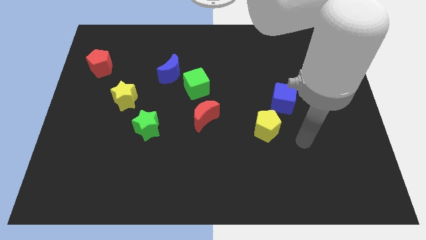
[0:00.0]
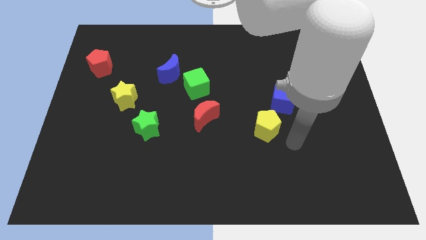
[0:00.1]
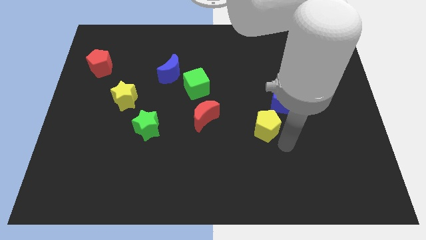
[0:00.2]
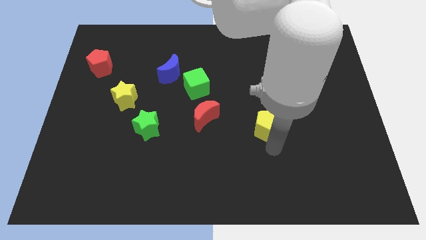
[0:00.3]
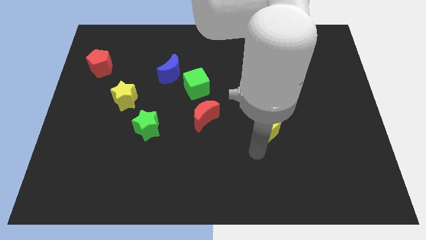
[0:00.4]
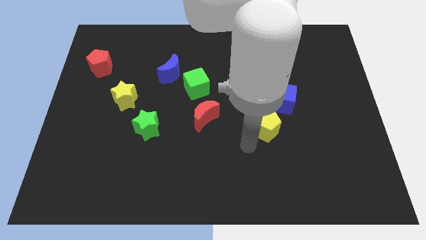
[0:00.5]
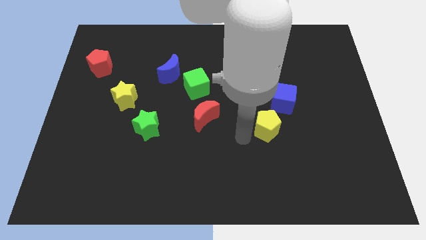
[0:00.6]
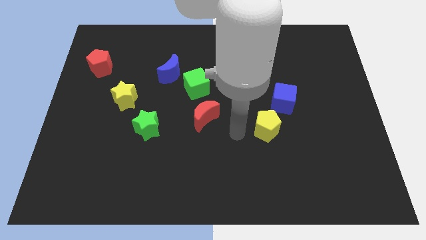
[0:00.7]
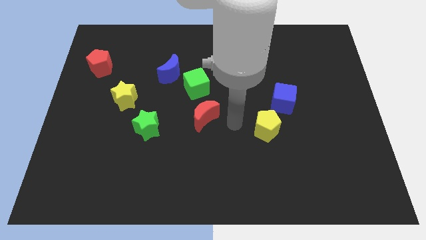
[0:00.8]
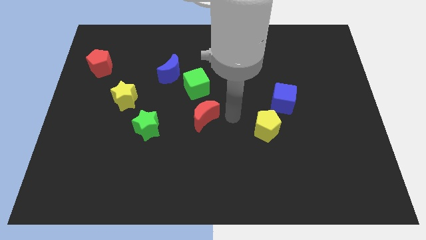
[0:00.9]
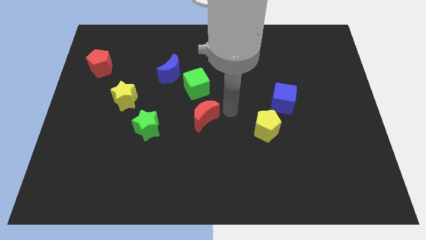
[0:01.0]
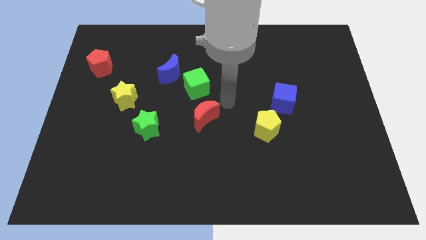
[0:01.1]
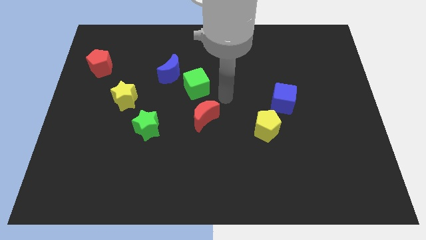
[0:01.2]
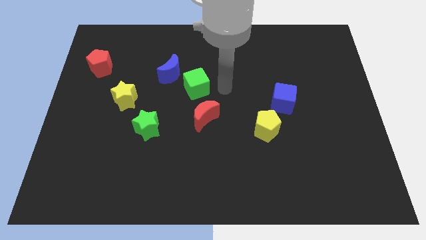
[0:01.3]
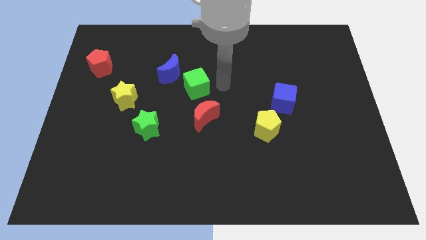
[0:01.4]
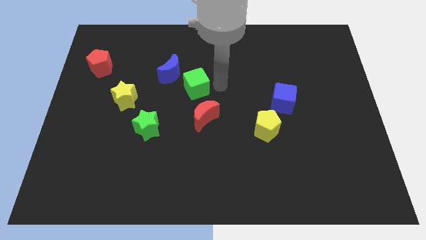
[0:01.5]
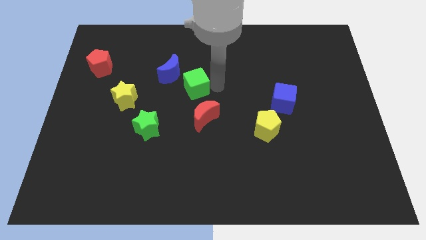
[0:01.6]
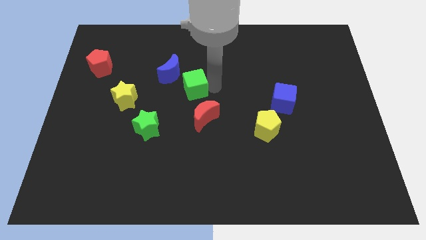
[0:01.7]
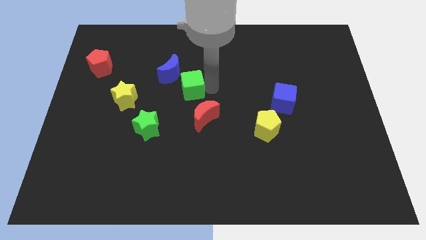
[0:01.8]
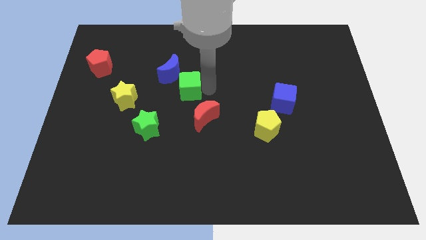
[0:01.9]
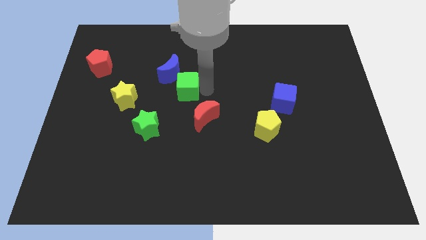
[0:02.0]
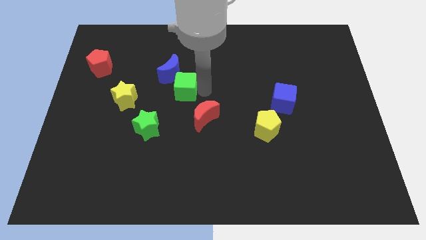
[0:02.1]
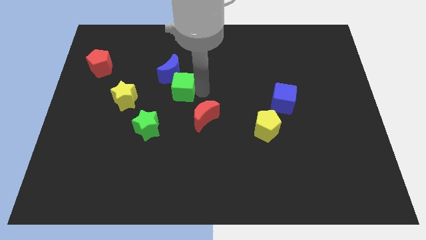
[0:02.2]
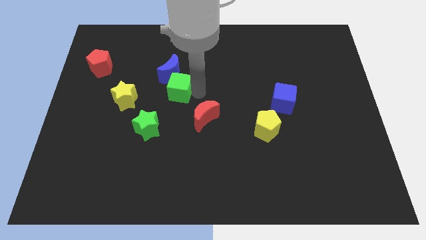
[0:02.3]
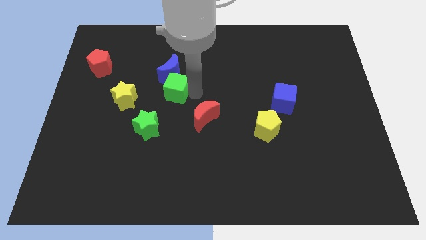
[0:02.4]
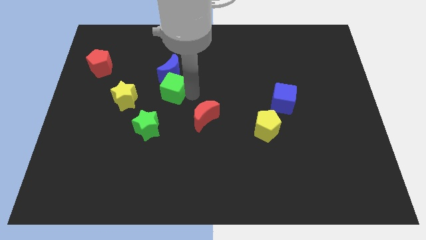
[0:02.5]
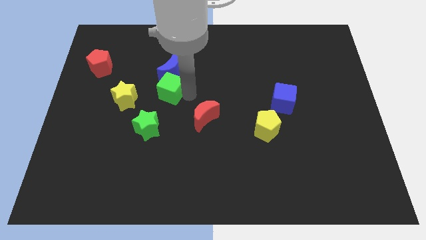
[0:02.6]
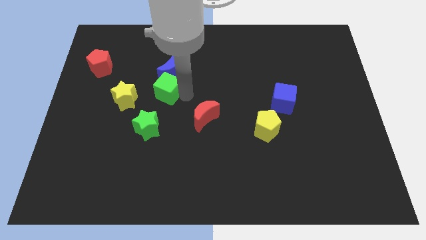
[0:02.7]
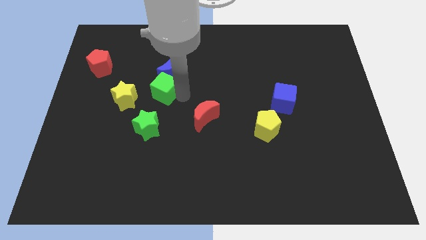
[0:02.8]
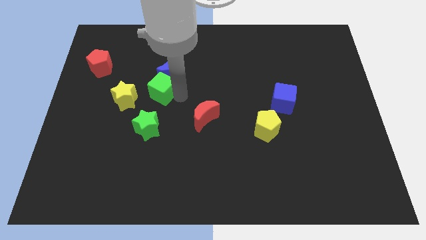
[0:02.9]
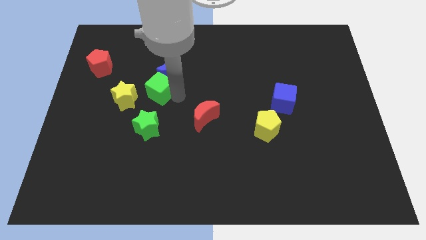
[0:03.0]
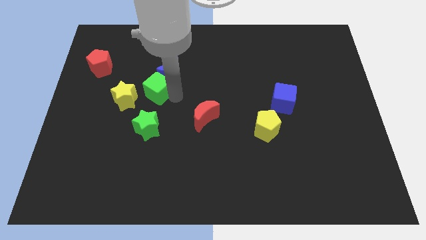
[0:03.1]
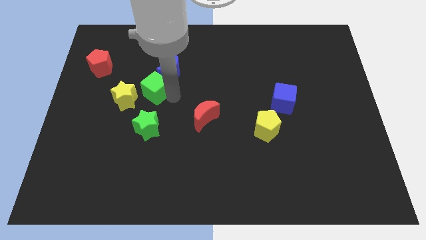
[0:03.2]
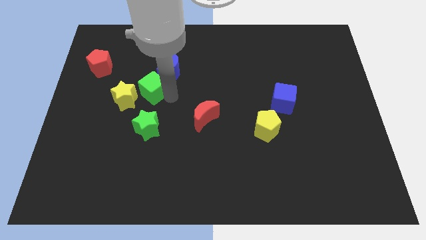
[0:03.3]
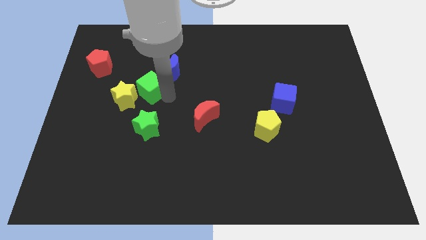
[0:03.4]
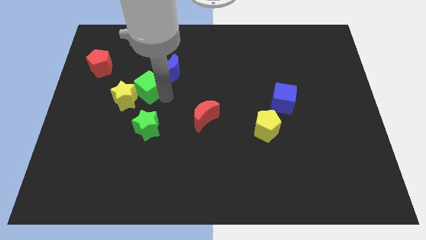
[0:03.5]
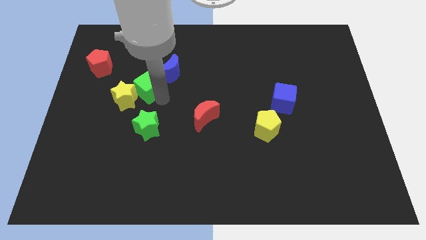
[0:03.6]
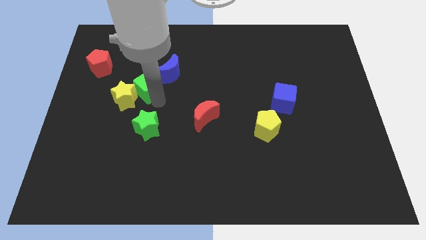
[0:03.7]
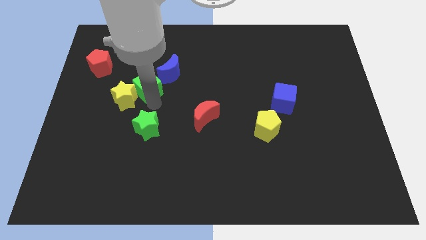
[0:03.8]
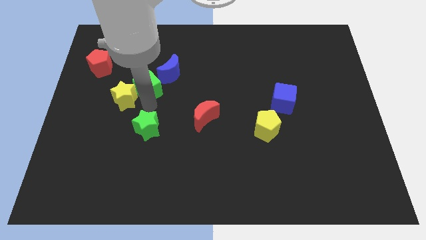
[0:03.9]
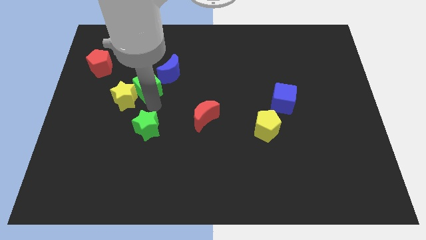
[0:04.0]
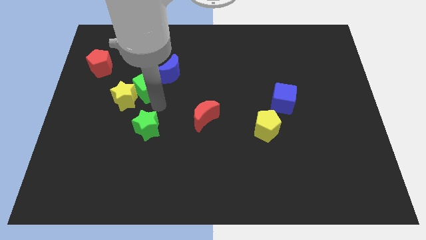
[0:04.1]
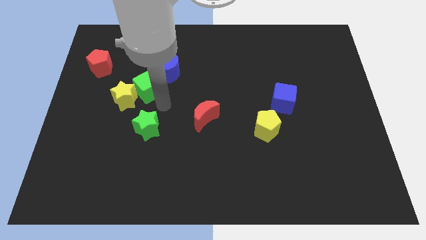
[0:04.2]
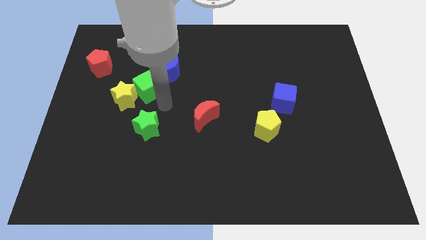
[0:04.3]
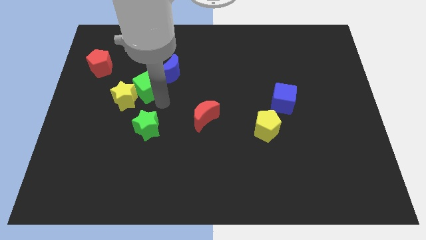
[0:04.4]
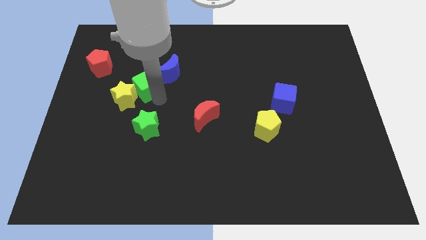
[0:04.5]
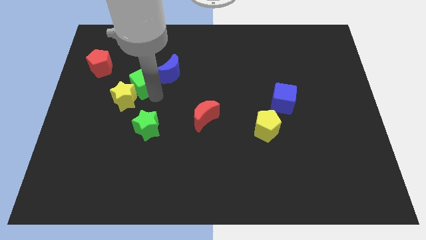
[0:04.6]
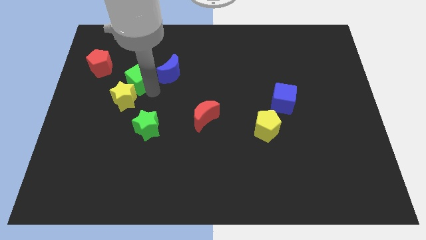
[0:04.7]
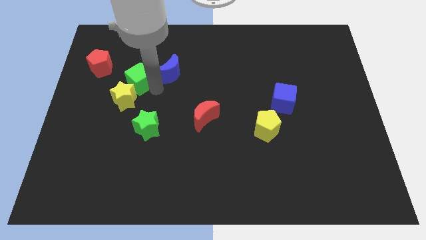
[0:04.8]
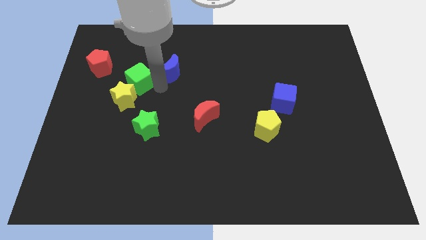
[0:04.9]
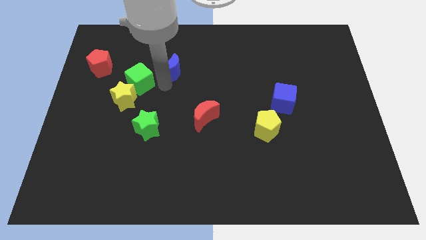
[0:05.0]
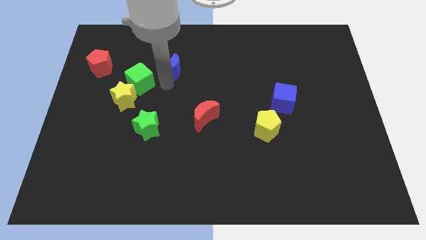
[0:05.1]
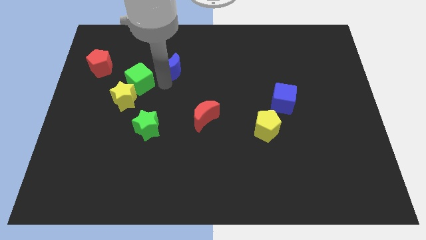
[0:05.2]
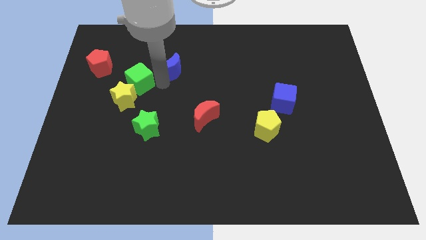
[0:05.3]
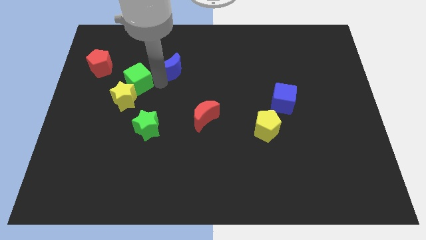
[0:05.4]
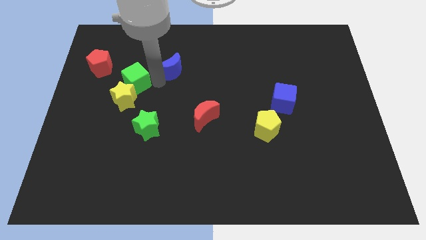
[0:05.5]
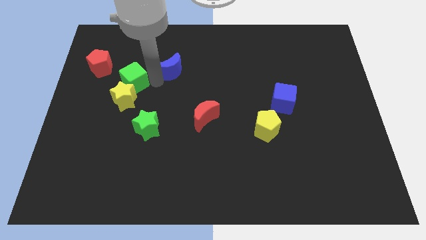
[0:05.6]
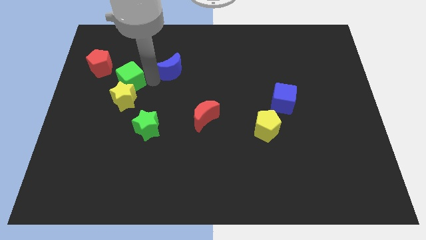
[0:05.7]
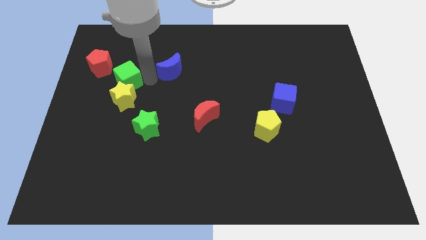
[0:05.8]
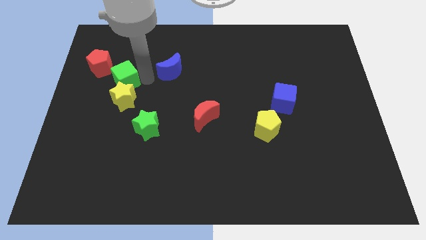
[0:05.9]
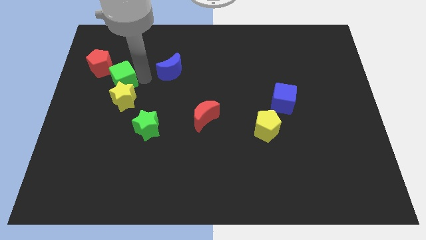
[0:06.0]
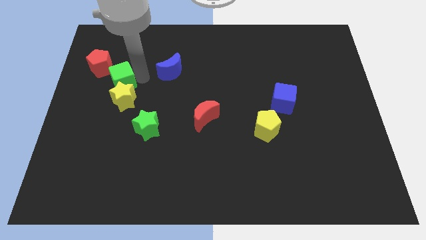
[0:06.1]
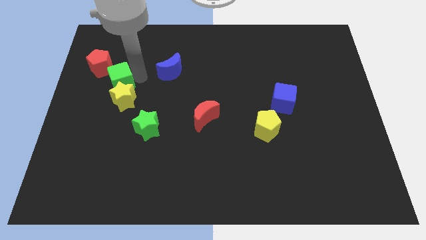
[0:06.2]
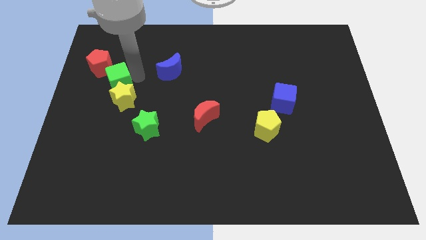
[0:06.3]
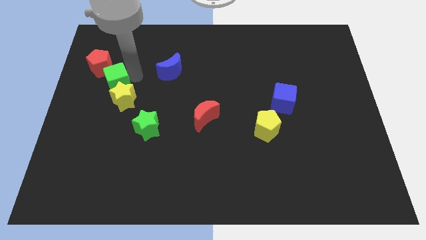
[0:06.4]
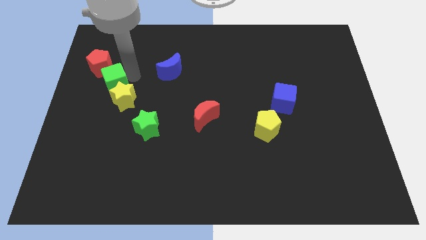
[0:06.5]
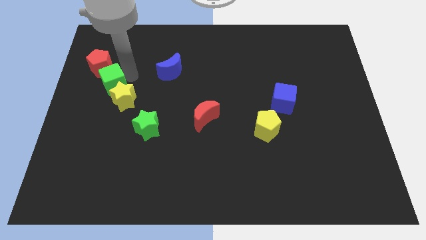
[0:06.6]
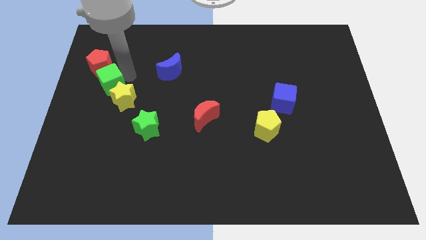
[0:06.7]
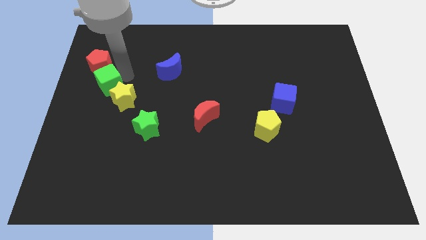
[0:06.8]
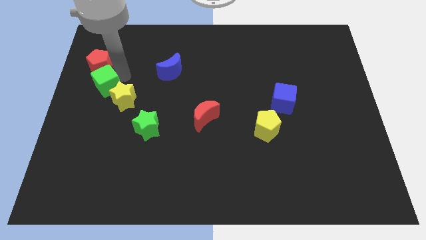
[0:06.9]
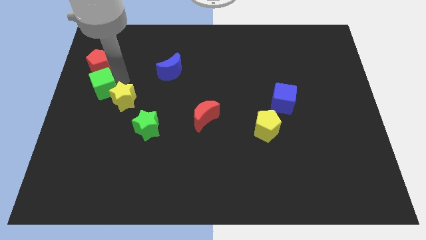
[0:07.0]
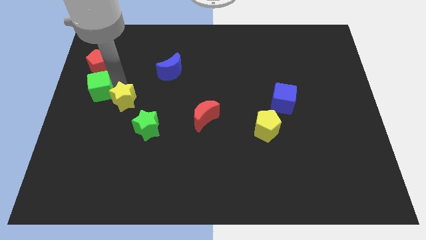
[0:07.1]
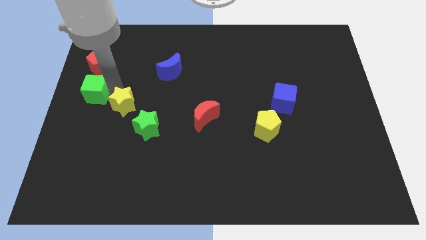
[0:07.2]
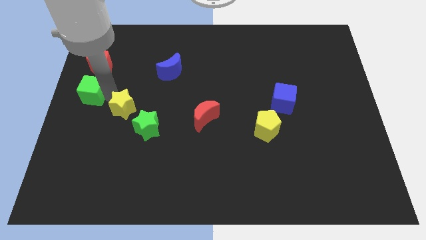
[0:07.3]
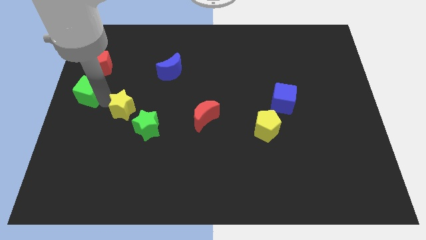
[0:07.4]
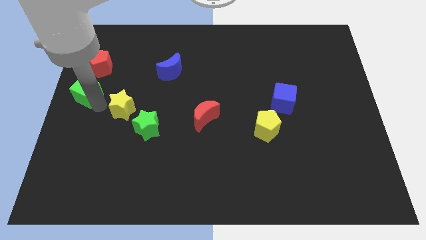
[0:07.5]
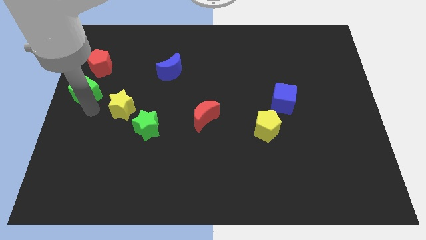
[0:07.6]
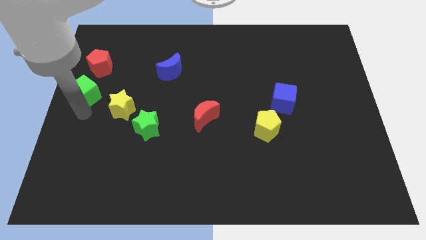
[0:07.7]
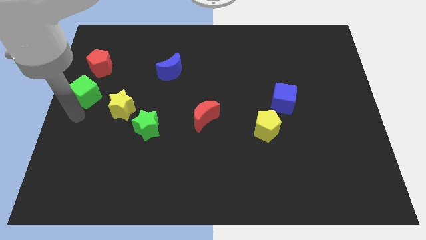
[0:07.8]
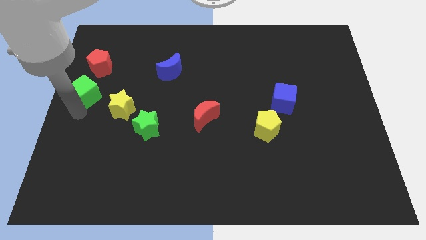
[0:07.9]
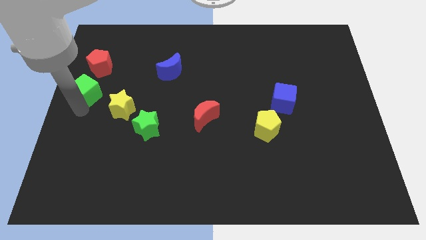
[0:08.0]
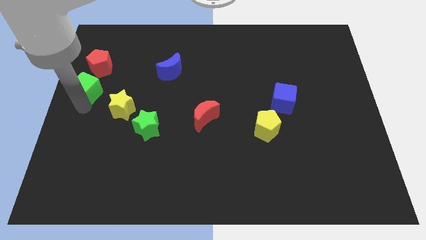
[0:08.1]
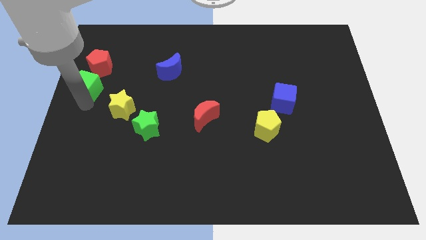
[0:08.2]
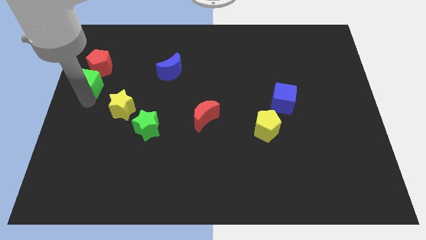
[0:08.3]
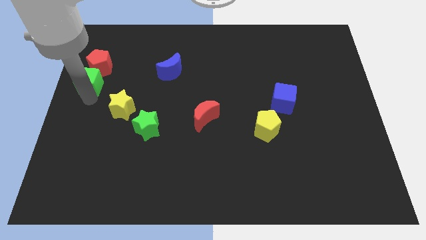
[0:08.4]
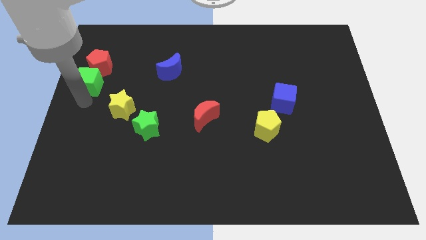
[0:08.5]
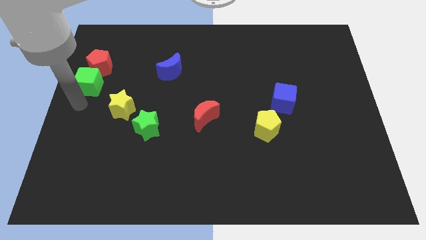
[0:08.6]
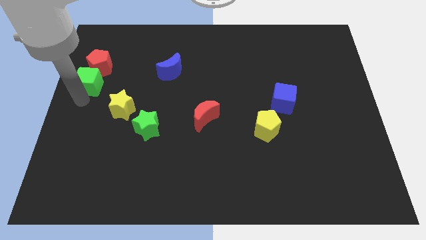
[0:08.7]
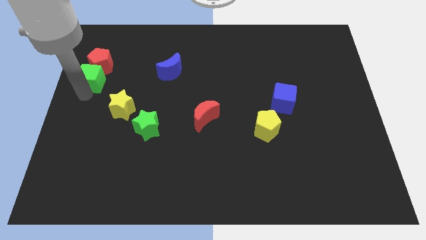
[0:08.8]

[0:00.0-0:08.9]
move the green cube close to the red pentagon
